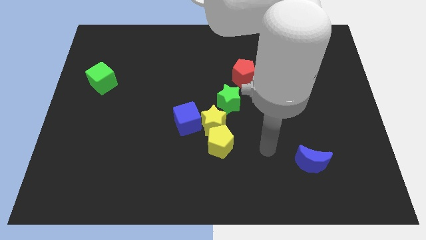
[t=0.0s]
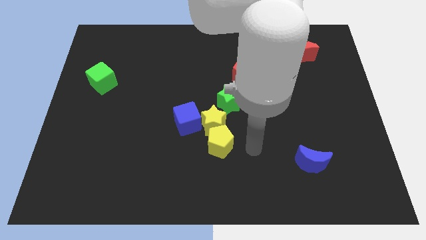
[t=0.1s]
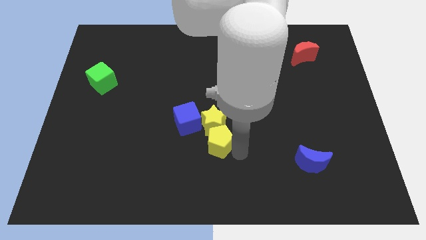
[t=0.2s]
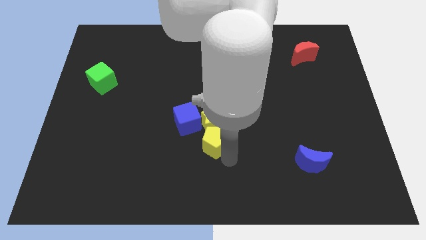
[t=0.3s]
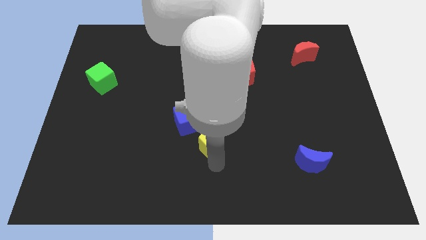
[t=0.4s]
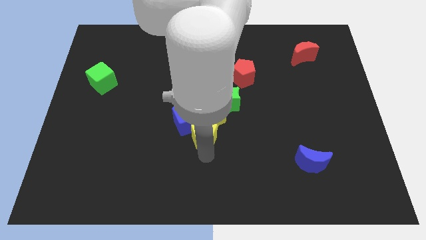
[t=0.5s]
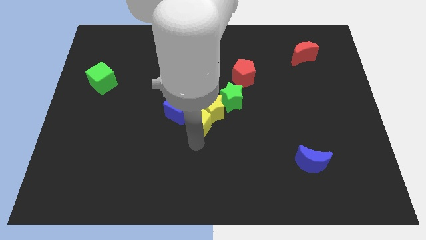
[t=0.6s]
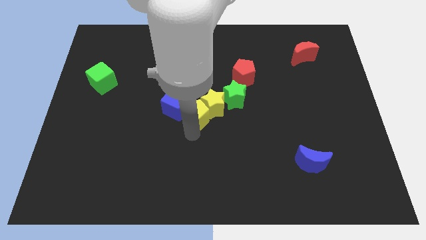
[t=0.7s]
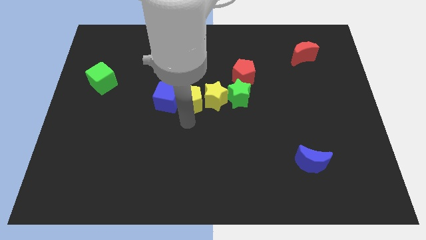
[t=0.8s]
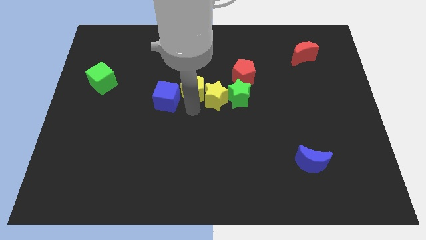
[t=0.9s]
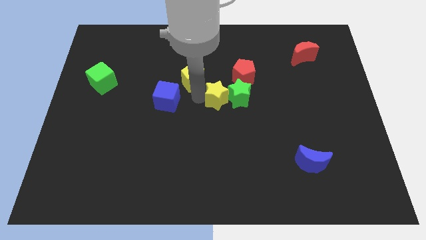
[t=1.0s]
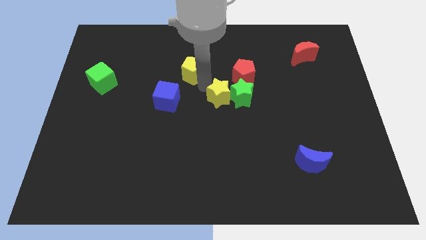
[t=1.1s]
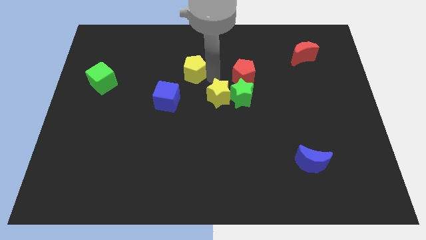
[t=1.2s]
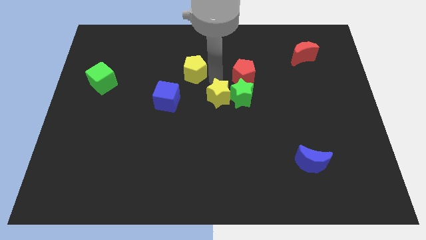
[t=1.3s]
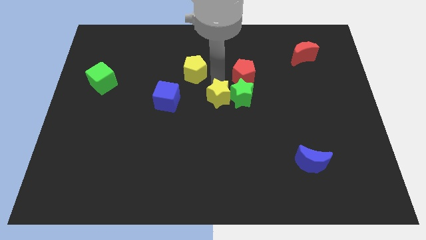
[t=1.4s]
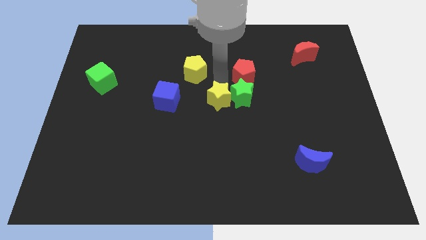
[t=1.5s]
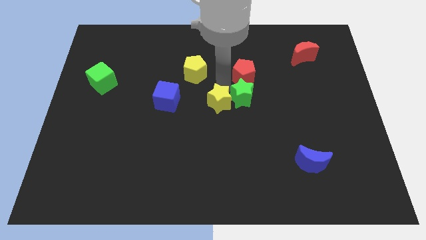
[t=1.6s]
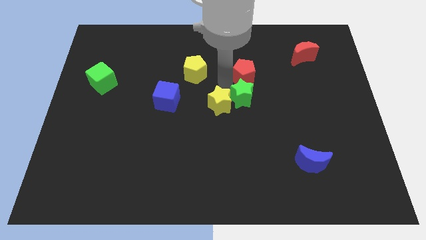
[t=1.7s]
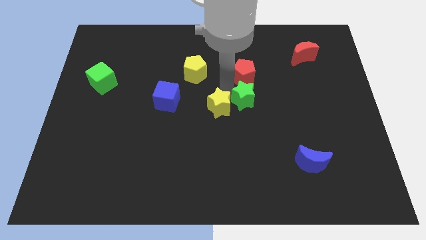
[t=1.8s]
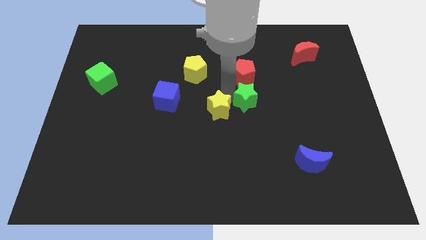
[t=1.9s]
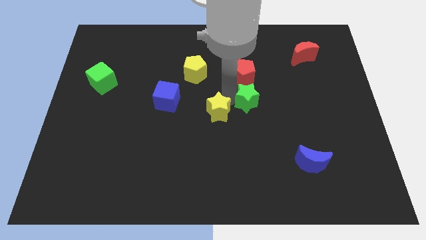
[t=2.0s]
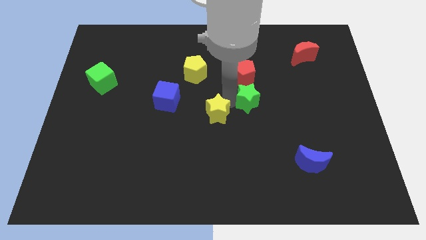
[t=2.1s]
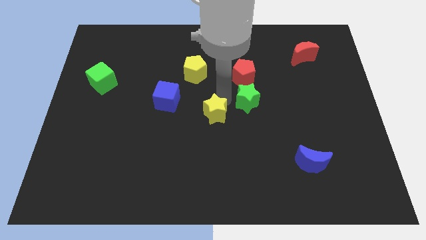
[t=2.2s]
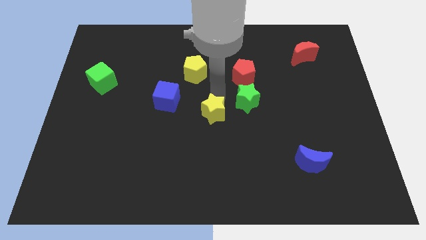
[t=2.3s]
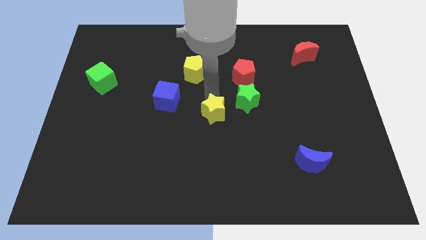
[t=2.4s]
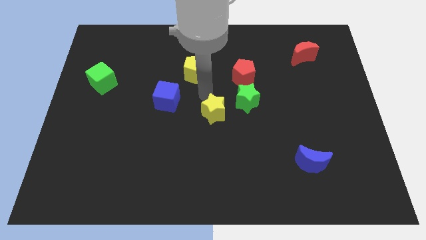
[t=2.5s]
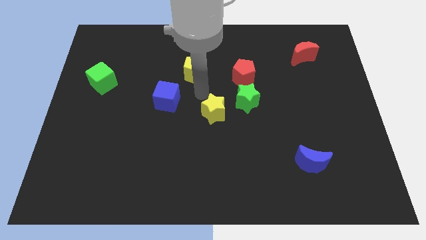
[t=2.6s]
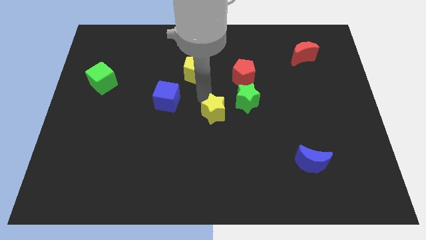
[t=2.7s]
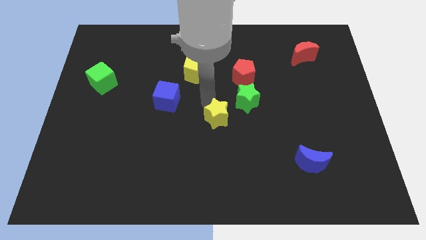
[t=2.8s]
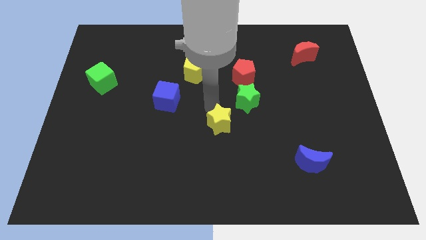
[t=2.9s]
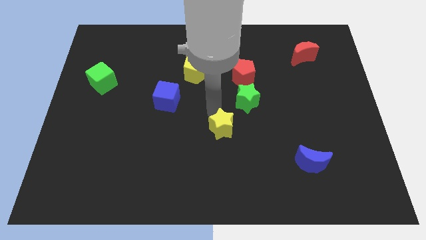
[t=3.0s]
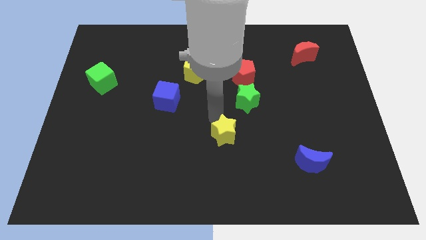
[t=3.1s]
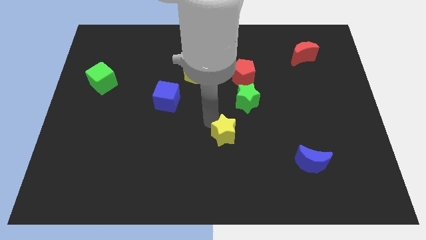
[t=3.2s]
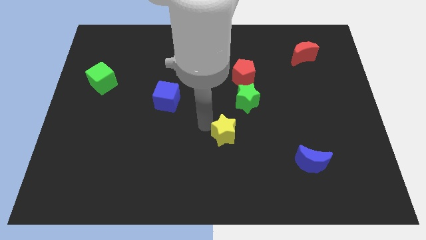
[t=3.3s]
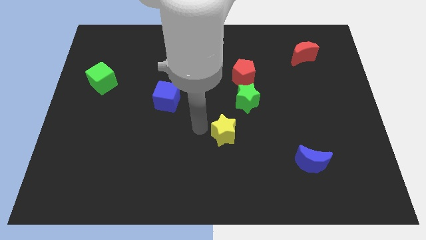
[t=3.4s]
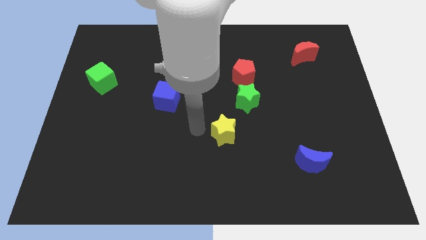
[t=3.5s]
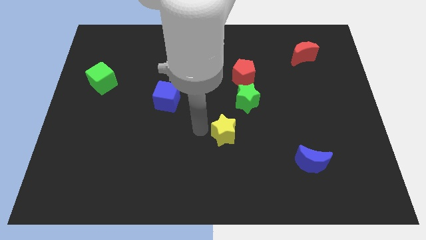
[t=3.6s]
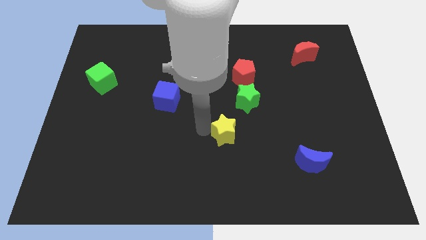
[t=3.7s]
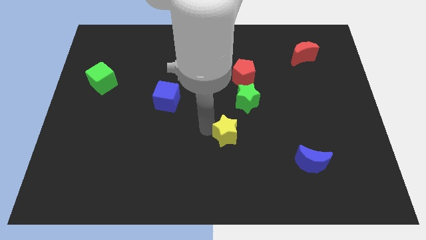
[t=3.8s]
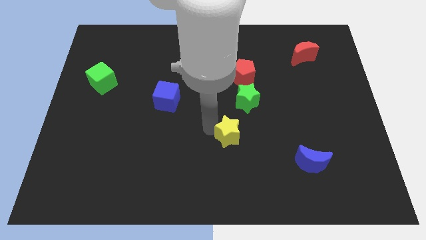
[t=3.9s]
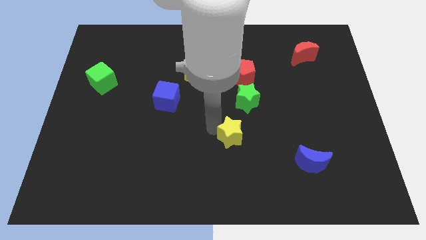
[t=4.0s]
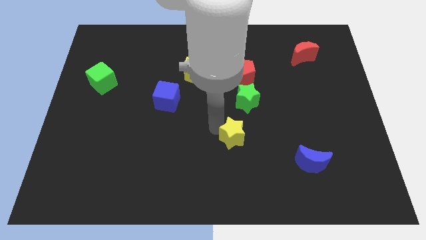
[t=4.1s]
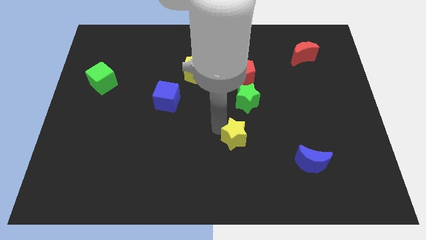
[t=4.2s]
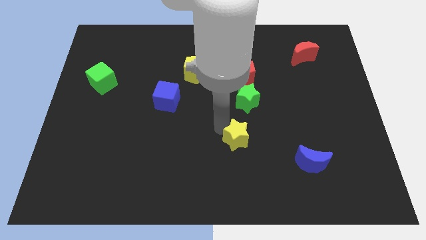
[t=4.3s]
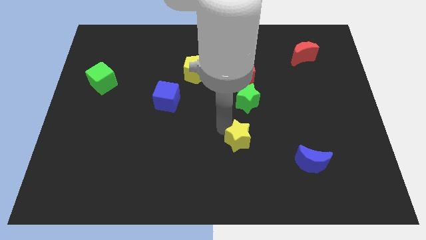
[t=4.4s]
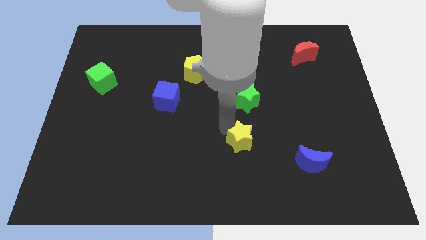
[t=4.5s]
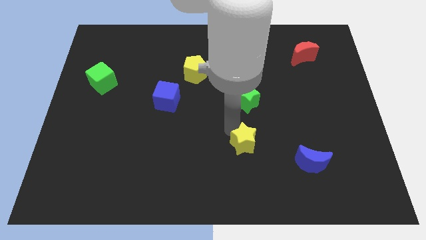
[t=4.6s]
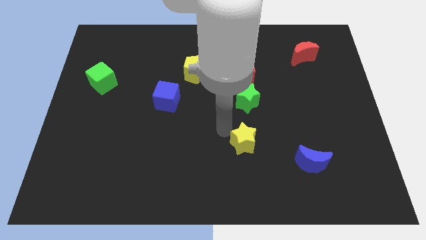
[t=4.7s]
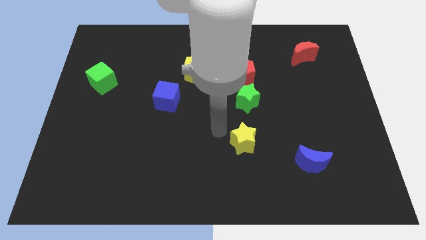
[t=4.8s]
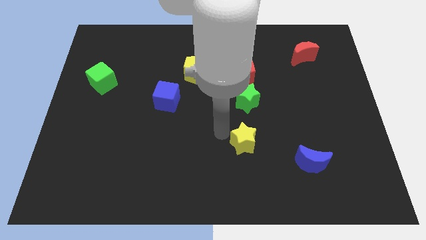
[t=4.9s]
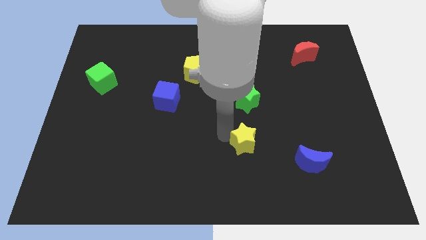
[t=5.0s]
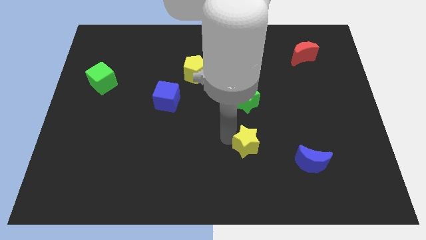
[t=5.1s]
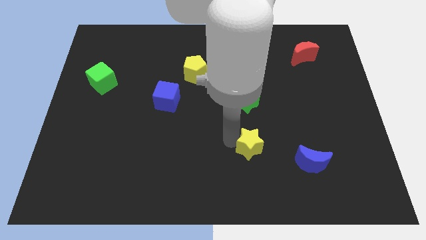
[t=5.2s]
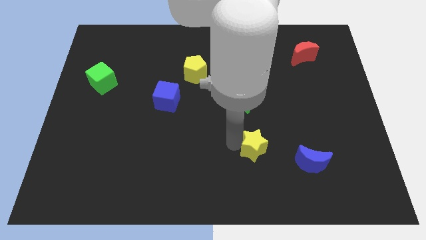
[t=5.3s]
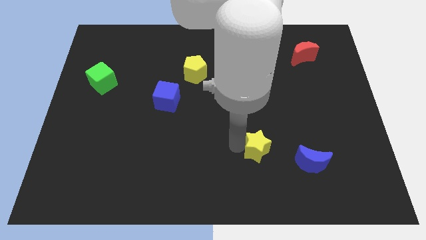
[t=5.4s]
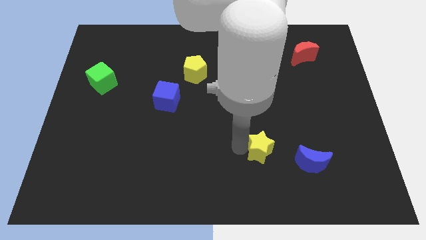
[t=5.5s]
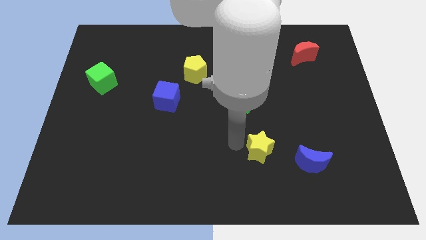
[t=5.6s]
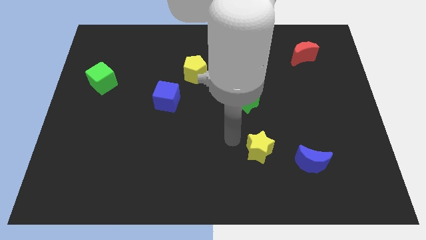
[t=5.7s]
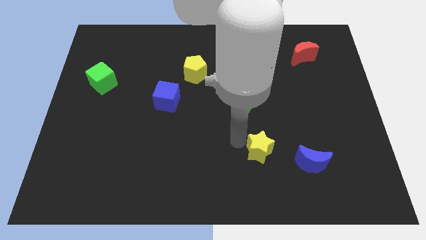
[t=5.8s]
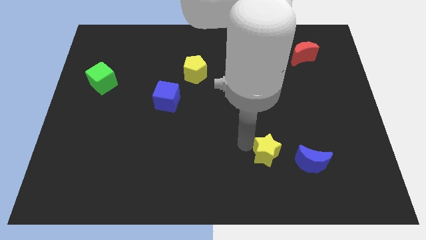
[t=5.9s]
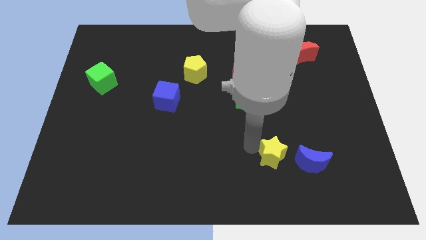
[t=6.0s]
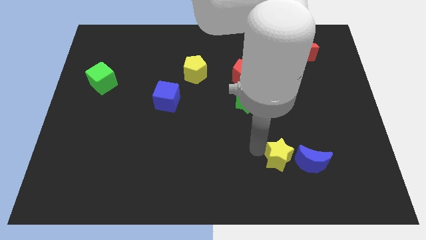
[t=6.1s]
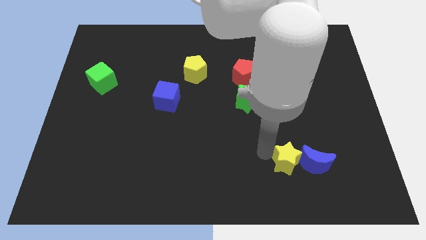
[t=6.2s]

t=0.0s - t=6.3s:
push the yellow star towards the blue moon

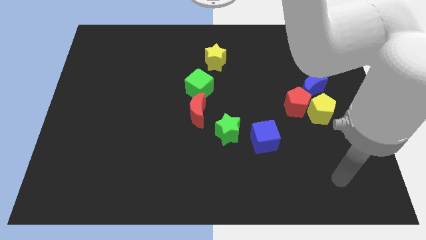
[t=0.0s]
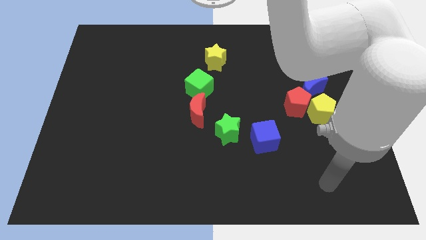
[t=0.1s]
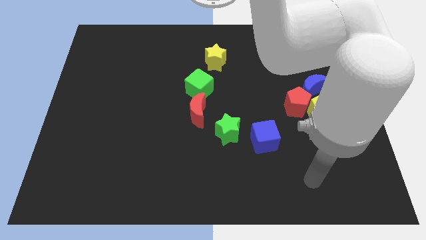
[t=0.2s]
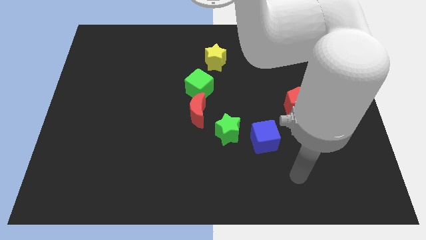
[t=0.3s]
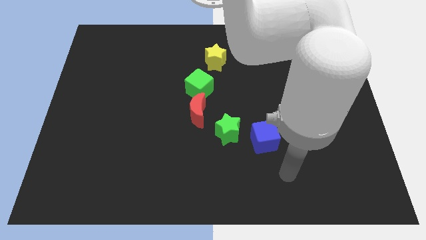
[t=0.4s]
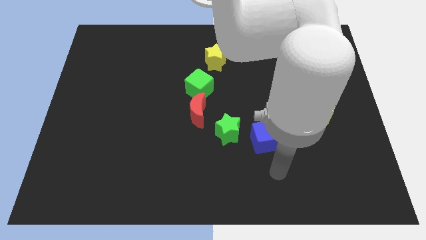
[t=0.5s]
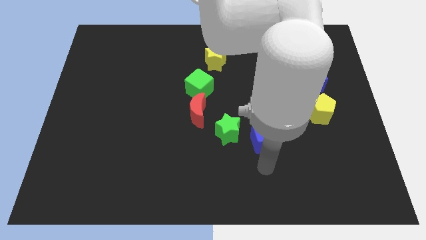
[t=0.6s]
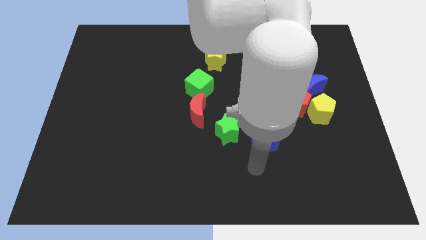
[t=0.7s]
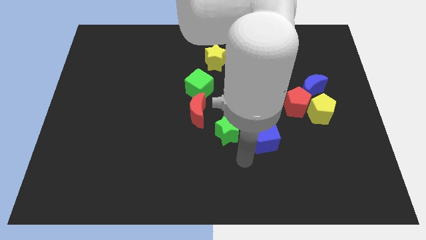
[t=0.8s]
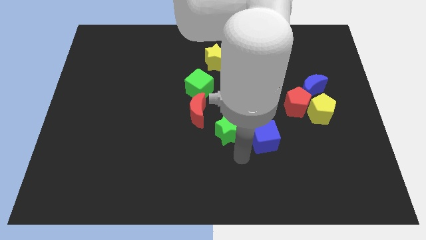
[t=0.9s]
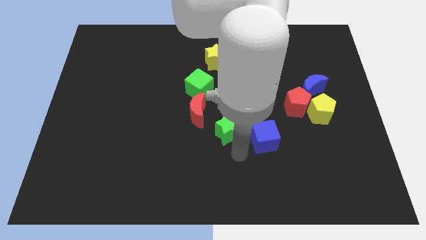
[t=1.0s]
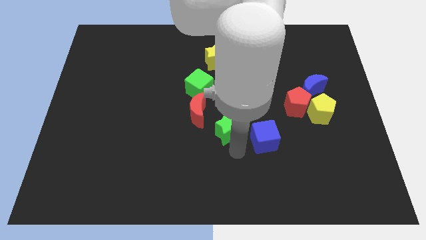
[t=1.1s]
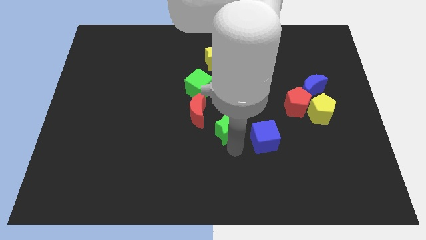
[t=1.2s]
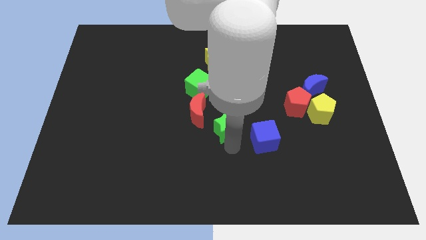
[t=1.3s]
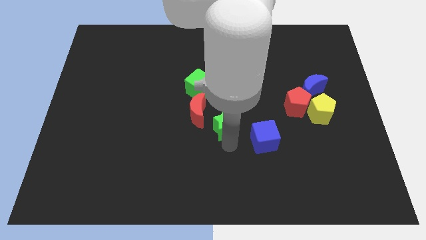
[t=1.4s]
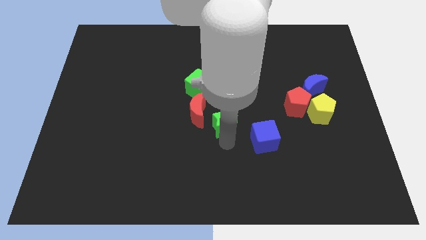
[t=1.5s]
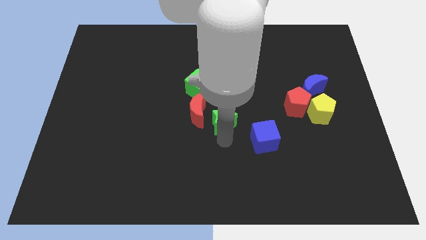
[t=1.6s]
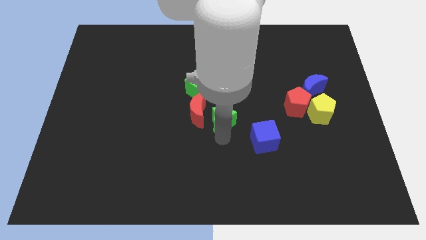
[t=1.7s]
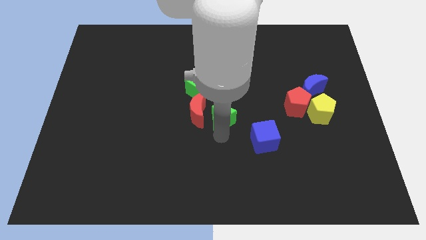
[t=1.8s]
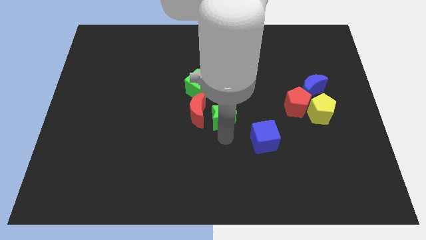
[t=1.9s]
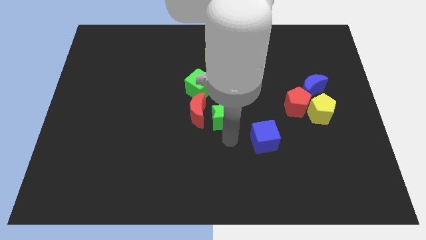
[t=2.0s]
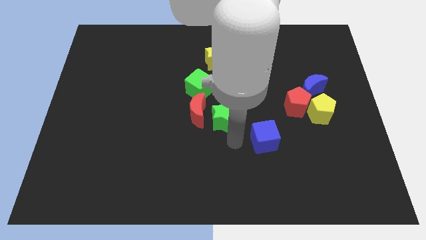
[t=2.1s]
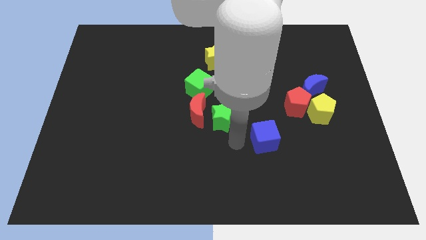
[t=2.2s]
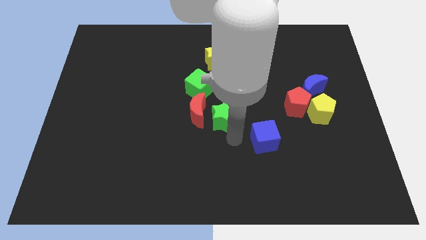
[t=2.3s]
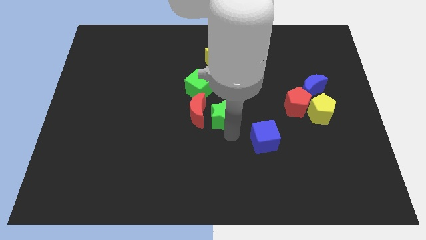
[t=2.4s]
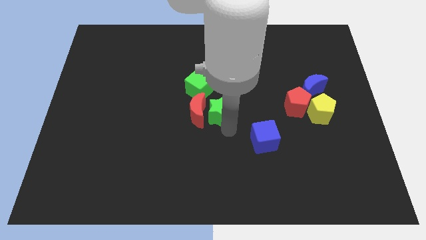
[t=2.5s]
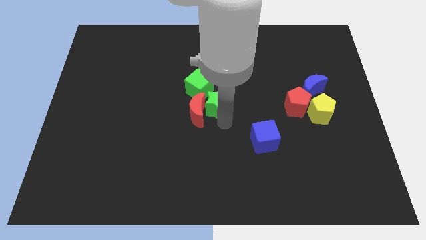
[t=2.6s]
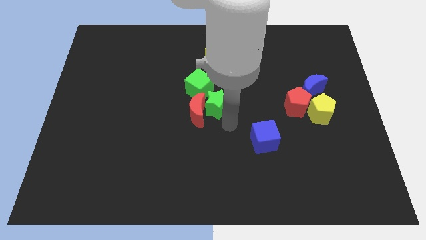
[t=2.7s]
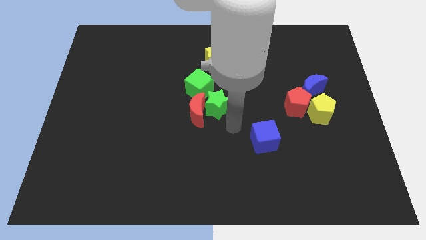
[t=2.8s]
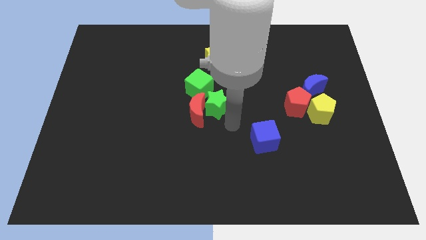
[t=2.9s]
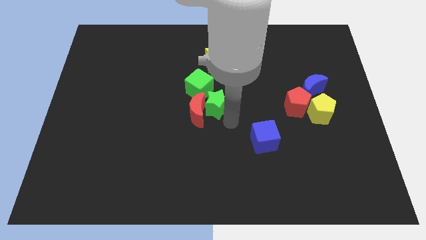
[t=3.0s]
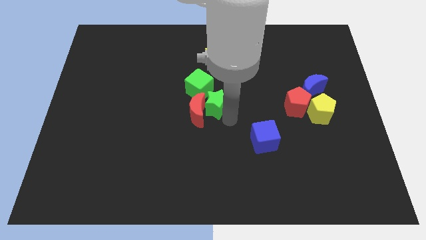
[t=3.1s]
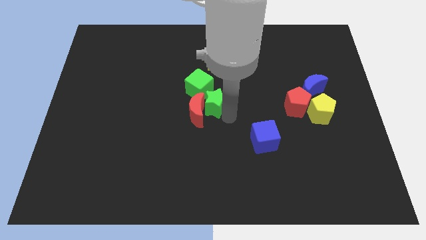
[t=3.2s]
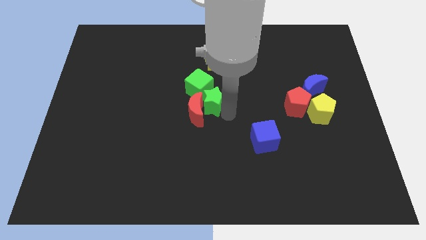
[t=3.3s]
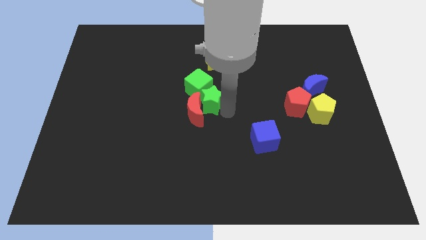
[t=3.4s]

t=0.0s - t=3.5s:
push the green star to the green cube
